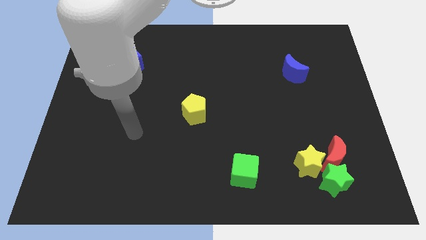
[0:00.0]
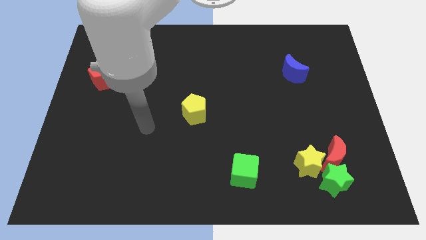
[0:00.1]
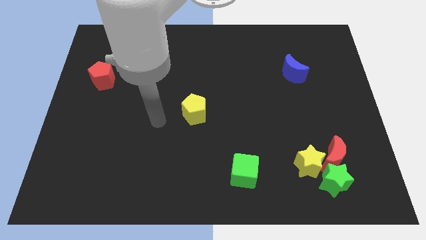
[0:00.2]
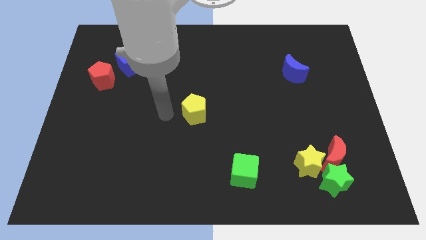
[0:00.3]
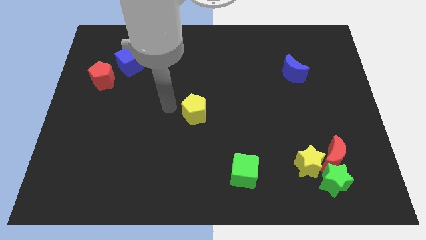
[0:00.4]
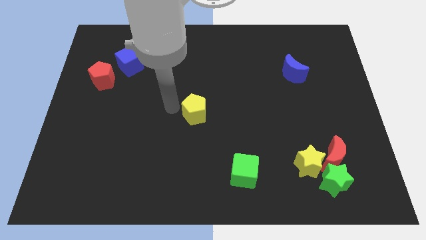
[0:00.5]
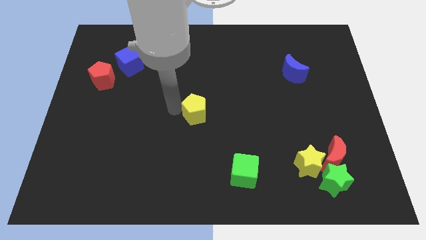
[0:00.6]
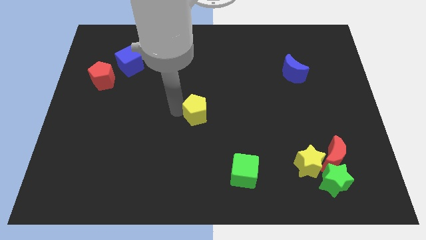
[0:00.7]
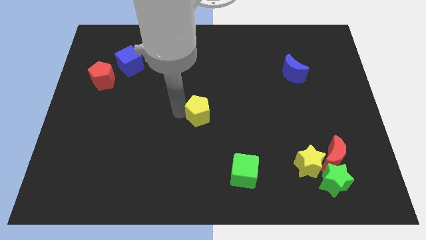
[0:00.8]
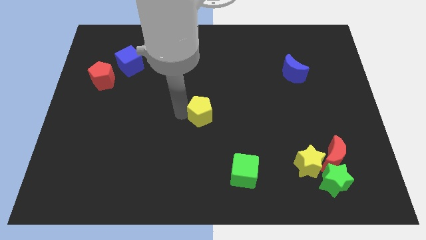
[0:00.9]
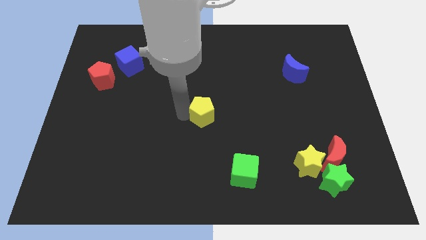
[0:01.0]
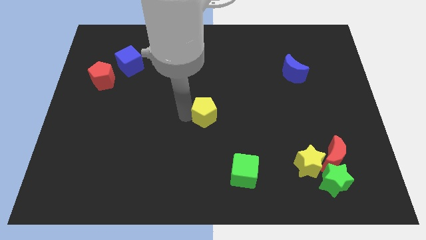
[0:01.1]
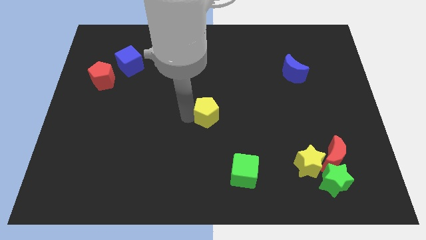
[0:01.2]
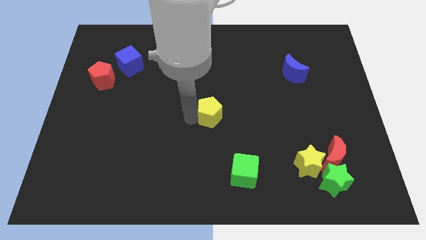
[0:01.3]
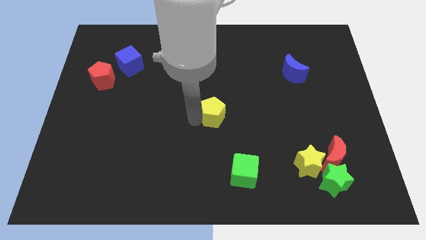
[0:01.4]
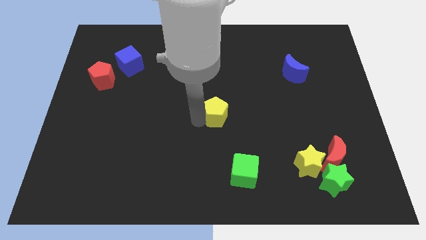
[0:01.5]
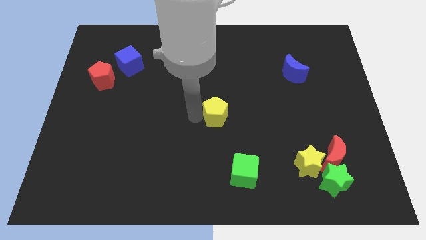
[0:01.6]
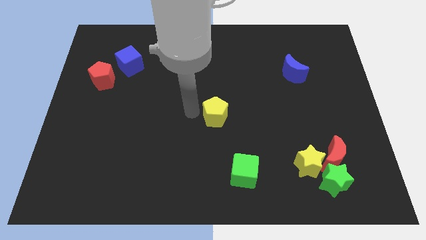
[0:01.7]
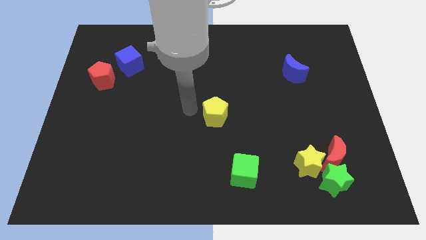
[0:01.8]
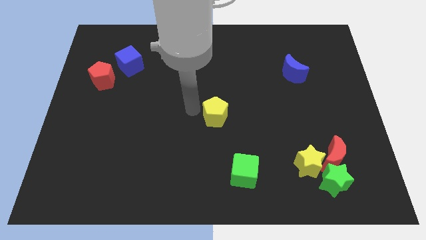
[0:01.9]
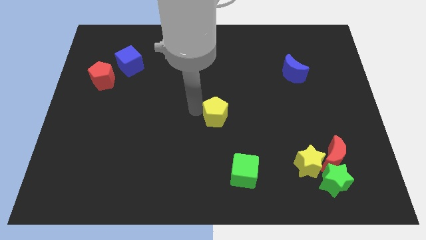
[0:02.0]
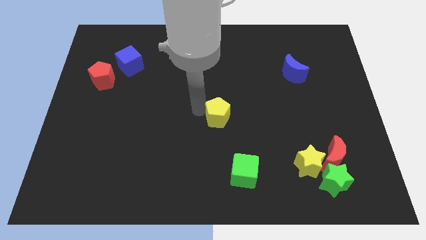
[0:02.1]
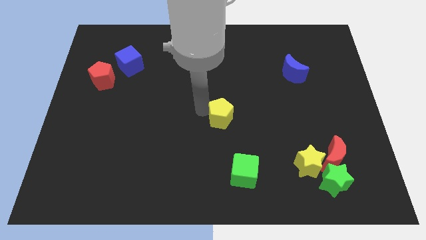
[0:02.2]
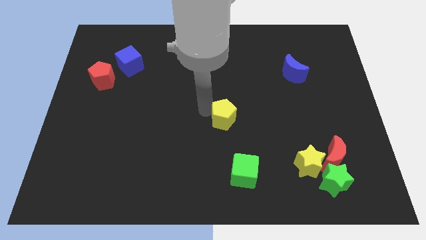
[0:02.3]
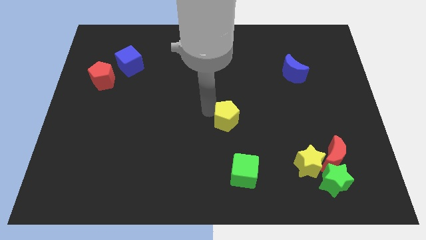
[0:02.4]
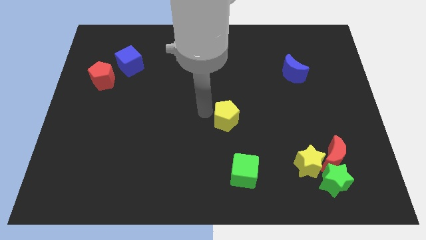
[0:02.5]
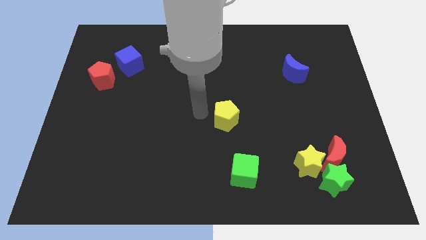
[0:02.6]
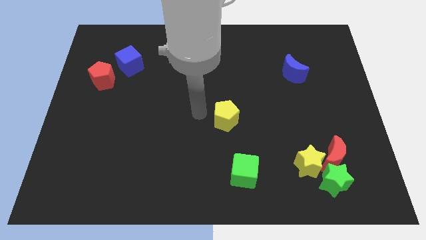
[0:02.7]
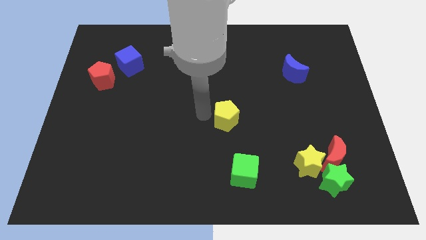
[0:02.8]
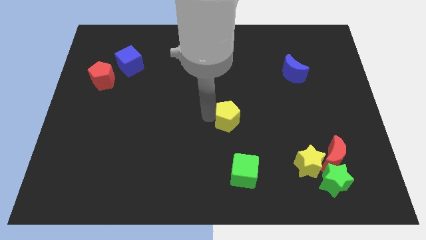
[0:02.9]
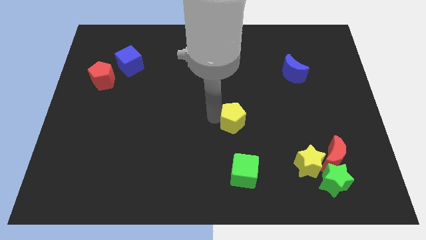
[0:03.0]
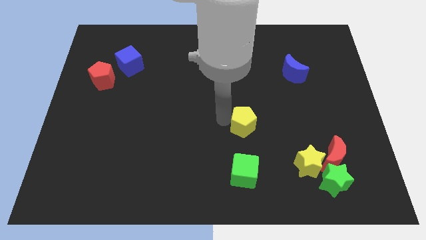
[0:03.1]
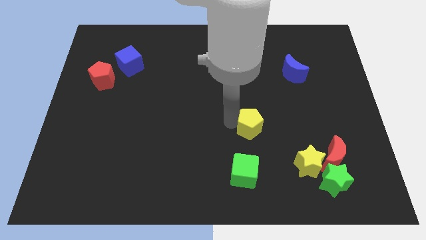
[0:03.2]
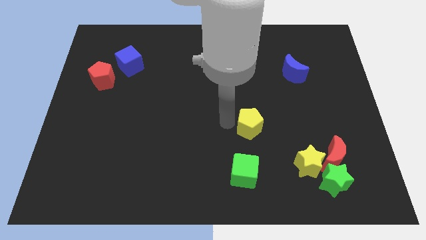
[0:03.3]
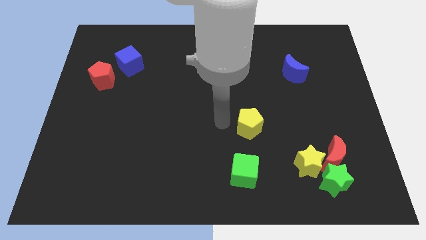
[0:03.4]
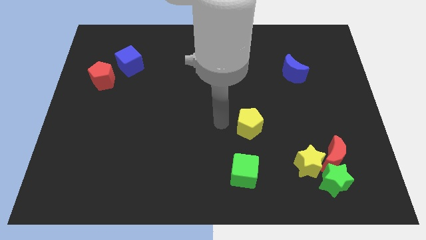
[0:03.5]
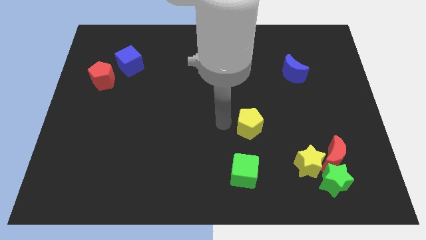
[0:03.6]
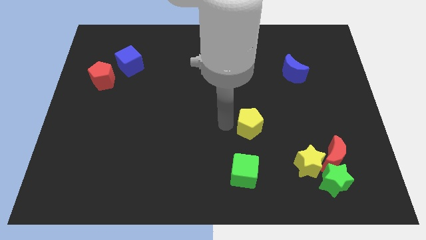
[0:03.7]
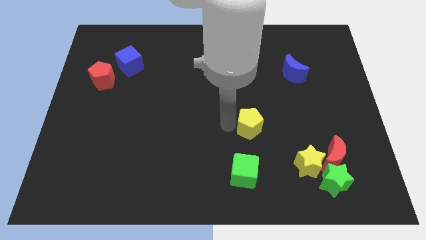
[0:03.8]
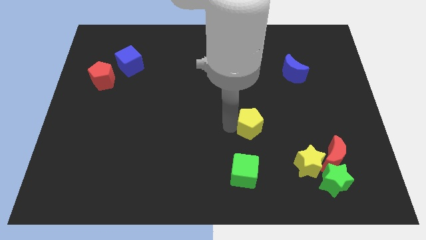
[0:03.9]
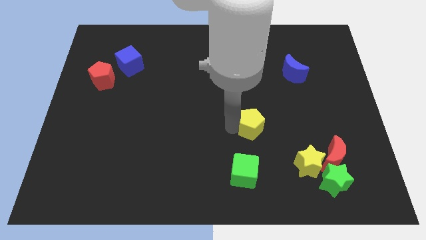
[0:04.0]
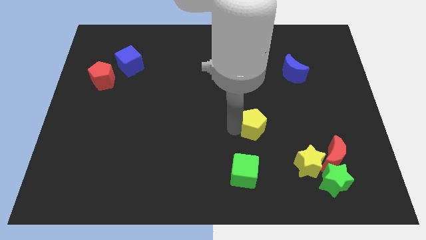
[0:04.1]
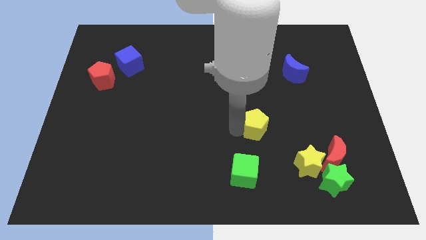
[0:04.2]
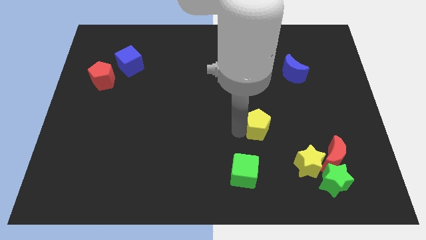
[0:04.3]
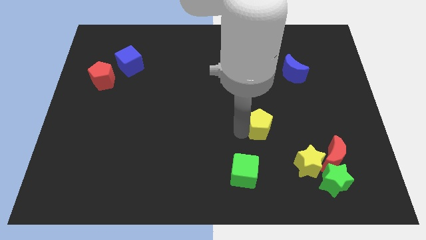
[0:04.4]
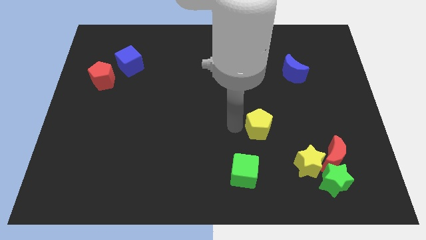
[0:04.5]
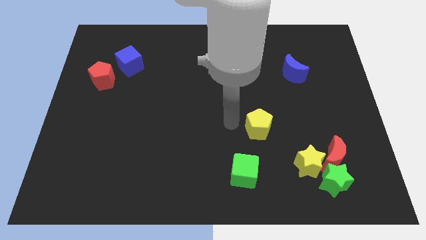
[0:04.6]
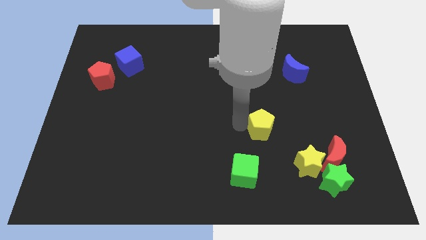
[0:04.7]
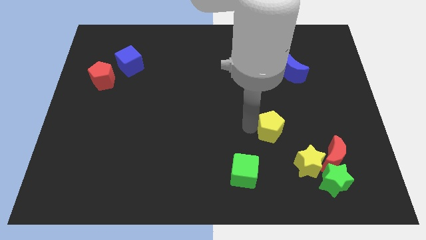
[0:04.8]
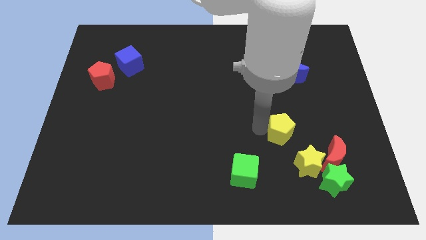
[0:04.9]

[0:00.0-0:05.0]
slide the yellow pentagon to the top left side of the red moon

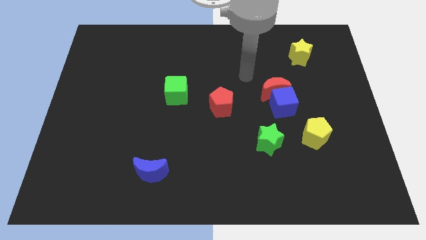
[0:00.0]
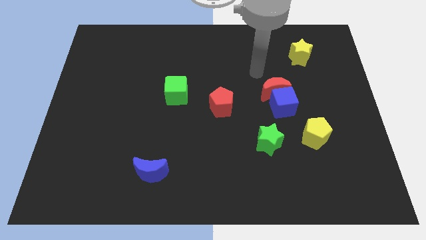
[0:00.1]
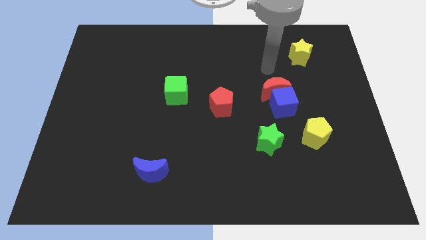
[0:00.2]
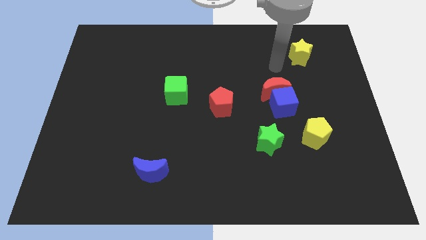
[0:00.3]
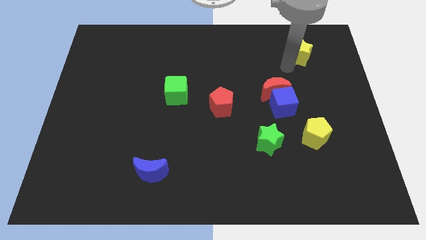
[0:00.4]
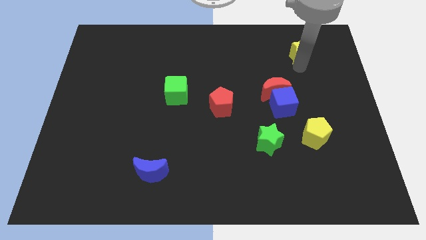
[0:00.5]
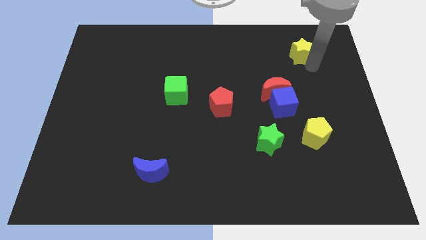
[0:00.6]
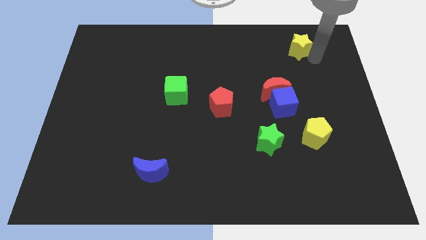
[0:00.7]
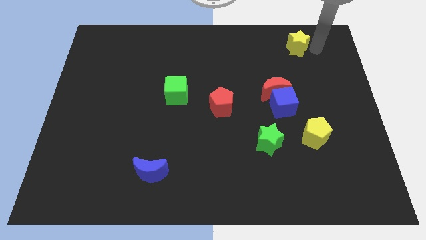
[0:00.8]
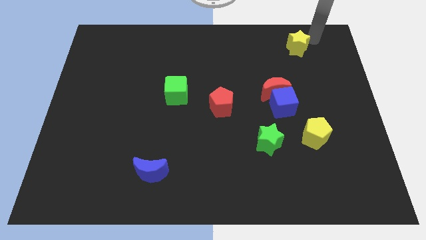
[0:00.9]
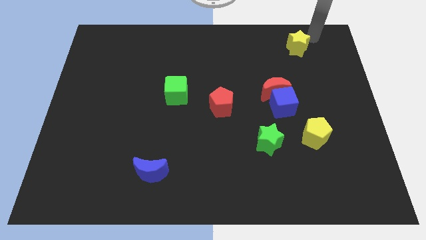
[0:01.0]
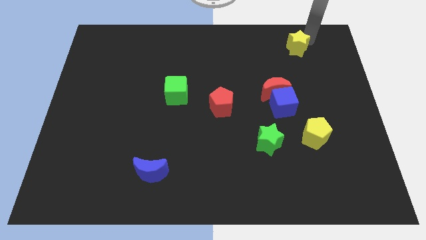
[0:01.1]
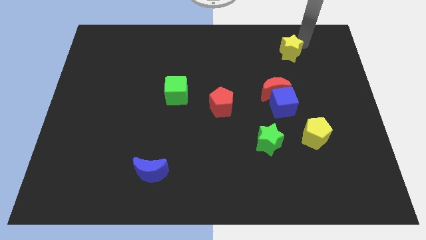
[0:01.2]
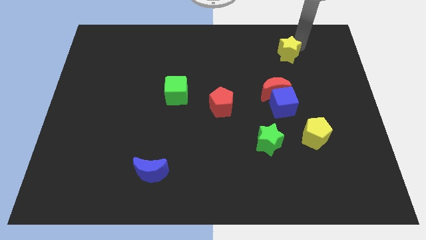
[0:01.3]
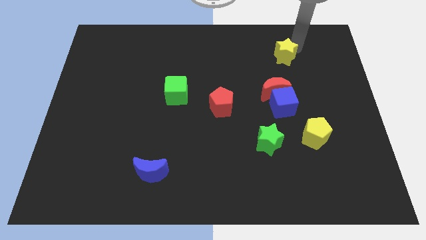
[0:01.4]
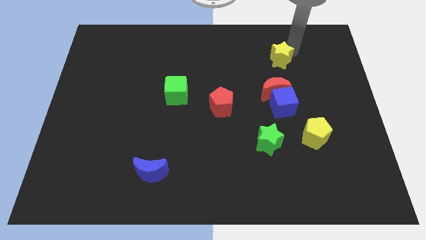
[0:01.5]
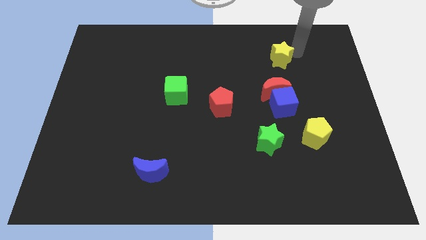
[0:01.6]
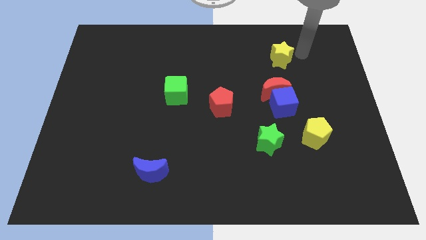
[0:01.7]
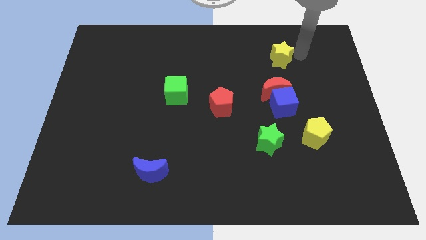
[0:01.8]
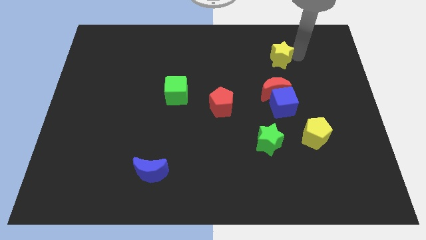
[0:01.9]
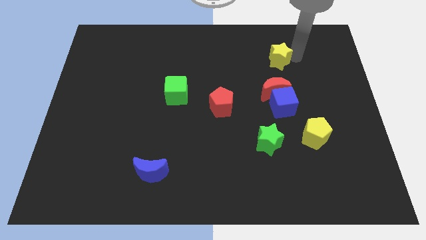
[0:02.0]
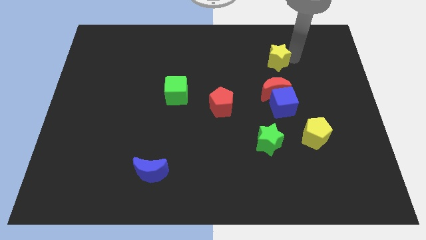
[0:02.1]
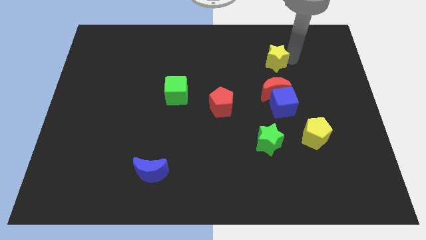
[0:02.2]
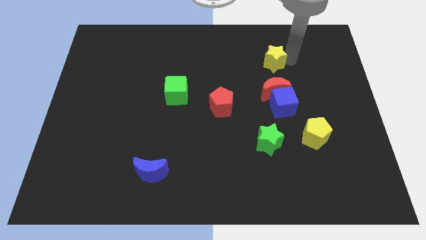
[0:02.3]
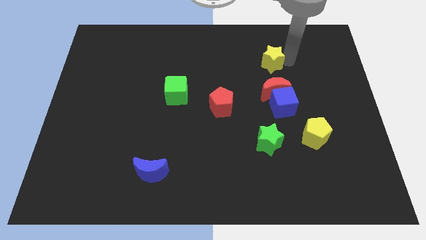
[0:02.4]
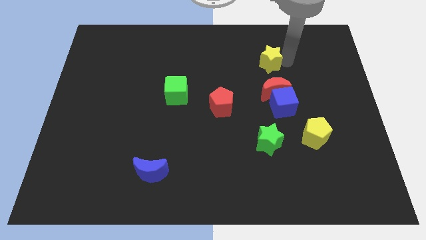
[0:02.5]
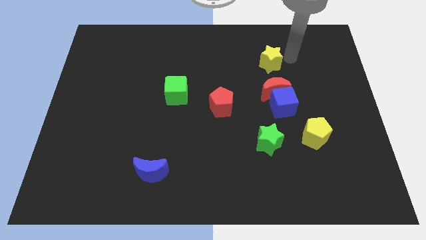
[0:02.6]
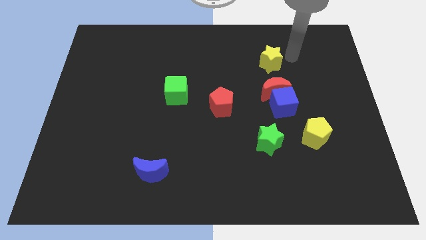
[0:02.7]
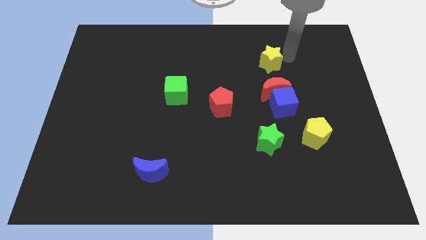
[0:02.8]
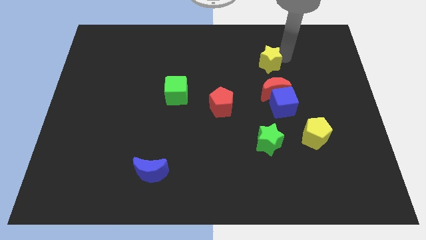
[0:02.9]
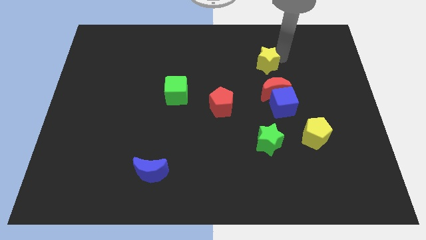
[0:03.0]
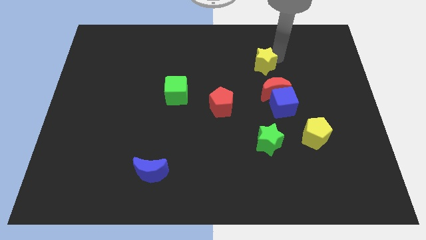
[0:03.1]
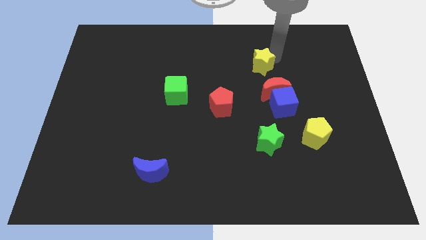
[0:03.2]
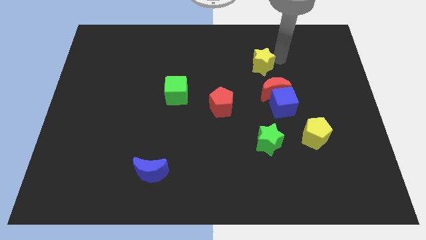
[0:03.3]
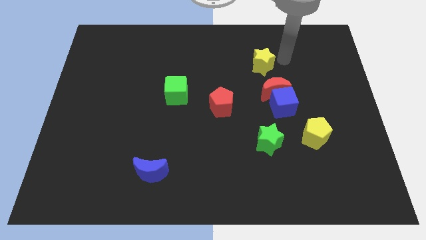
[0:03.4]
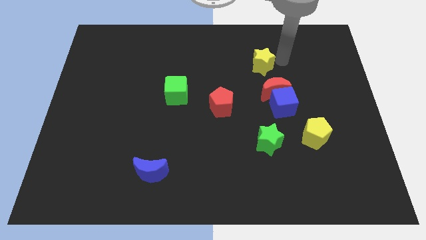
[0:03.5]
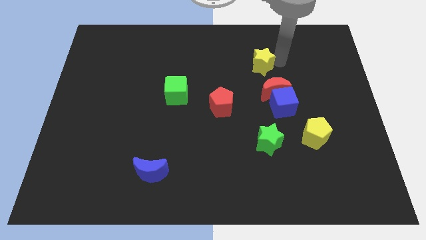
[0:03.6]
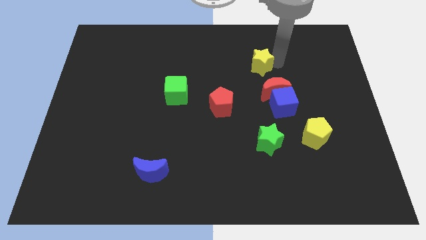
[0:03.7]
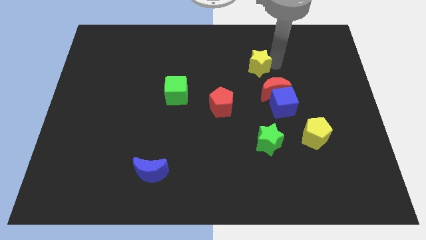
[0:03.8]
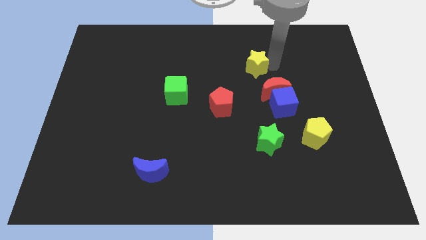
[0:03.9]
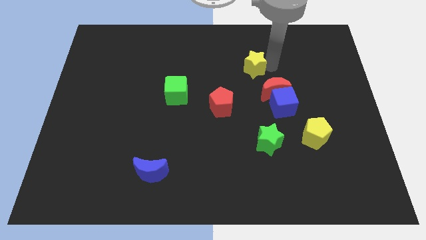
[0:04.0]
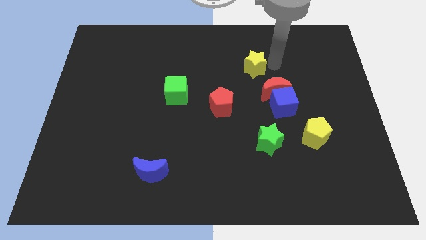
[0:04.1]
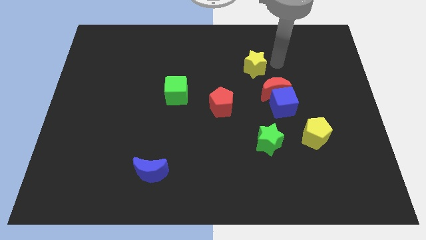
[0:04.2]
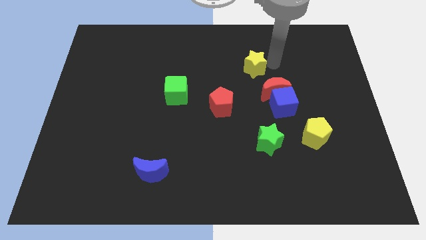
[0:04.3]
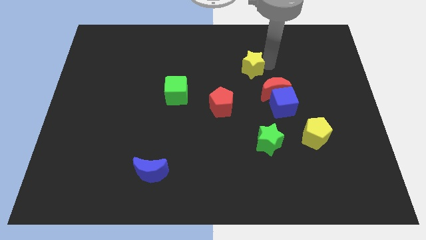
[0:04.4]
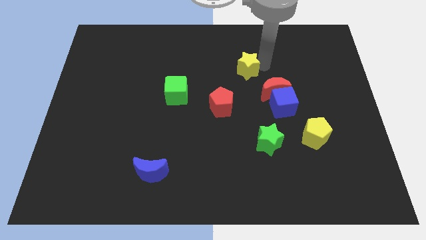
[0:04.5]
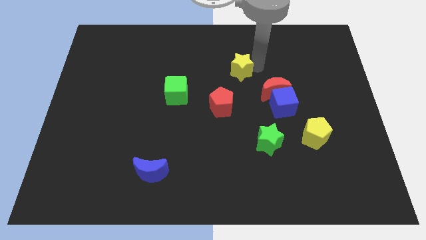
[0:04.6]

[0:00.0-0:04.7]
move the yellow star to the top side of the red pentagon
